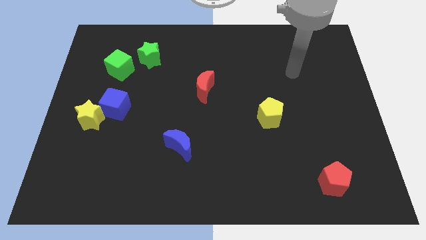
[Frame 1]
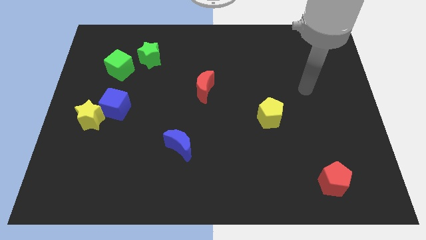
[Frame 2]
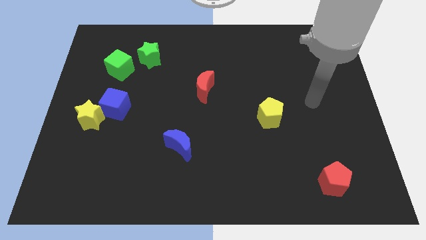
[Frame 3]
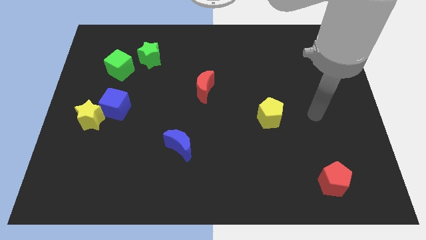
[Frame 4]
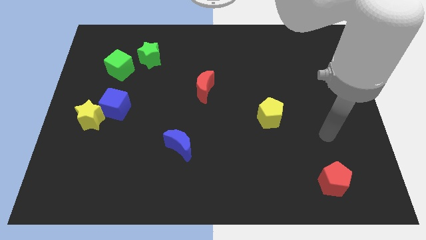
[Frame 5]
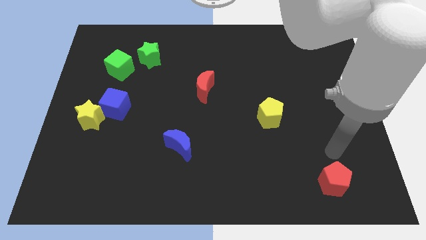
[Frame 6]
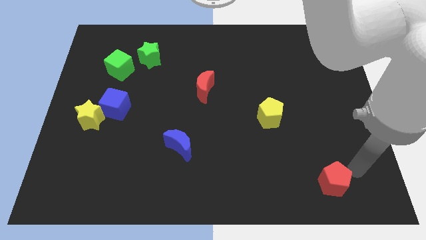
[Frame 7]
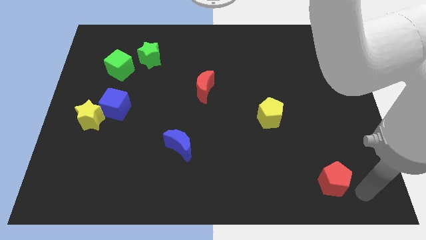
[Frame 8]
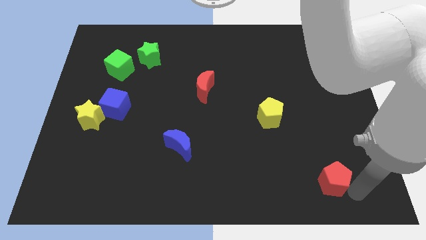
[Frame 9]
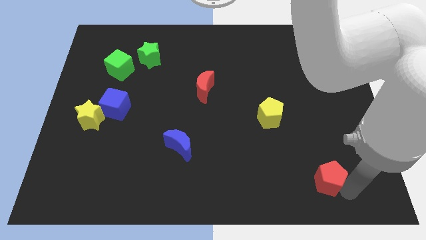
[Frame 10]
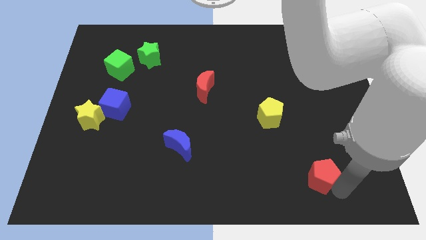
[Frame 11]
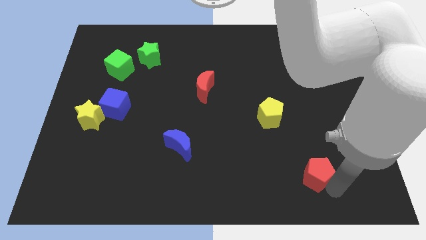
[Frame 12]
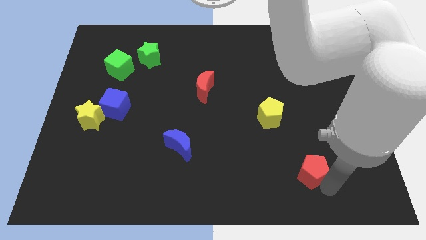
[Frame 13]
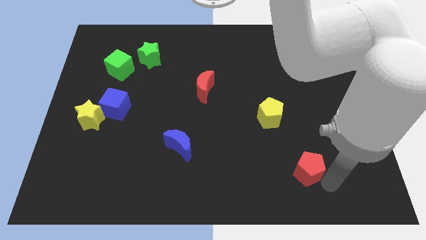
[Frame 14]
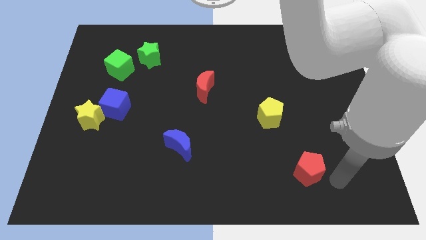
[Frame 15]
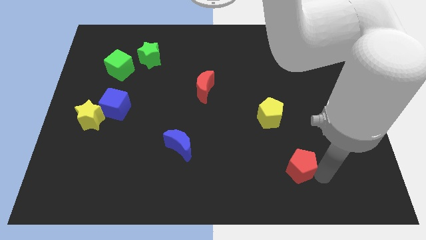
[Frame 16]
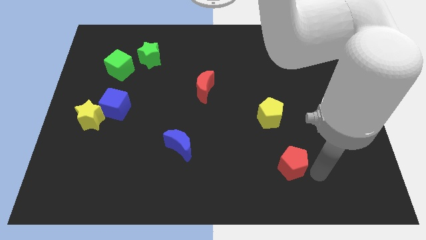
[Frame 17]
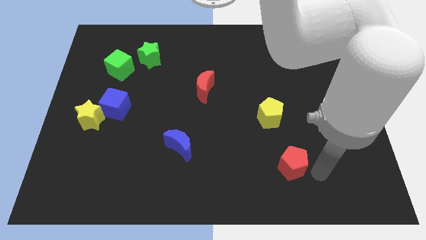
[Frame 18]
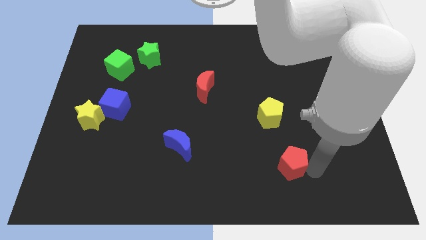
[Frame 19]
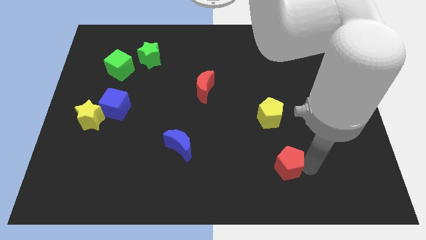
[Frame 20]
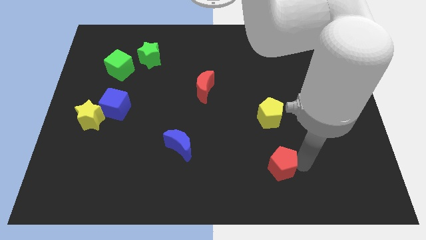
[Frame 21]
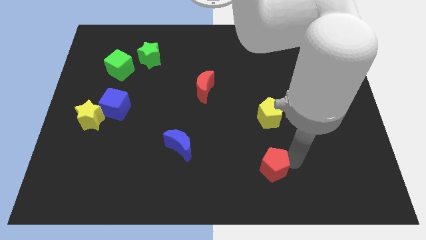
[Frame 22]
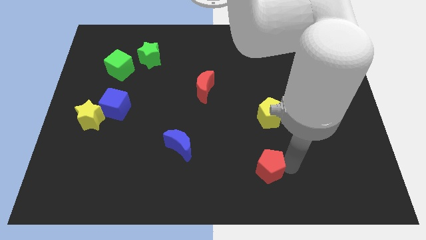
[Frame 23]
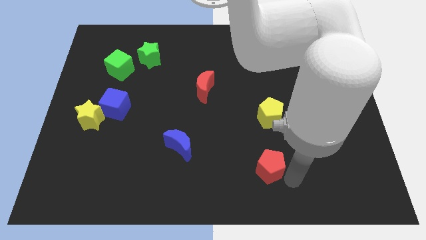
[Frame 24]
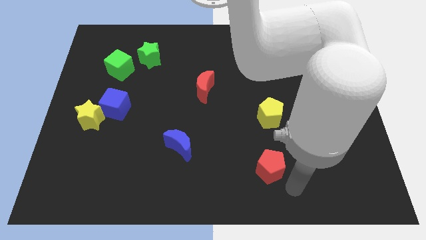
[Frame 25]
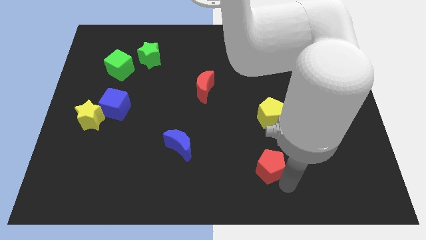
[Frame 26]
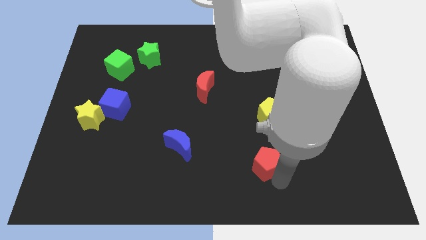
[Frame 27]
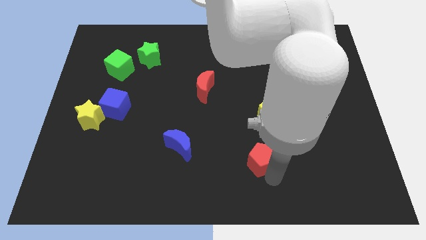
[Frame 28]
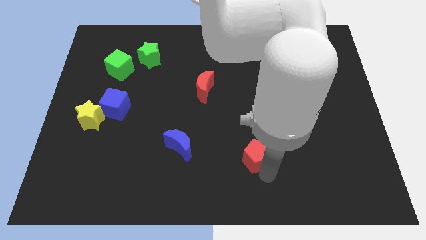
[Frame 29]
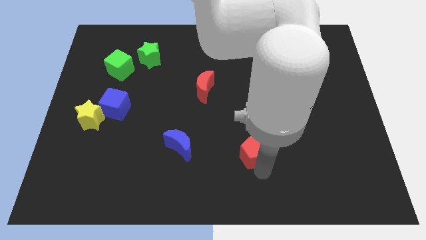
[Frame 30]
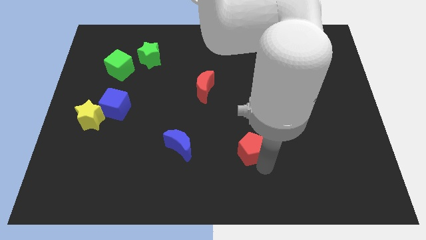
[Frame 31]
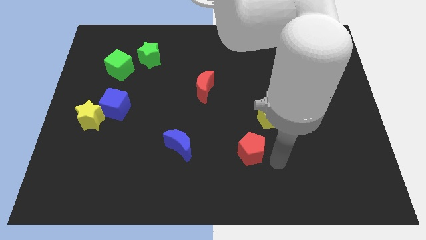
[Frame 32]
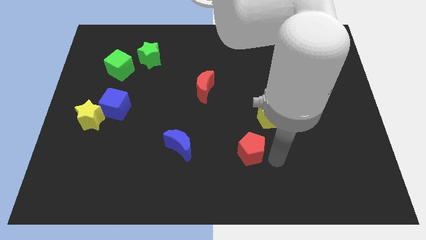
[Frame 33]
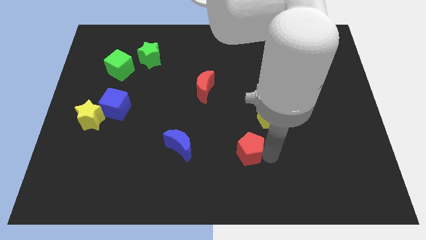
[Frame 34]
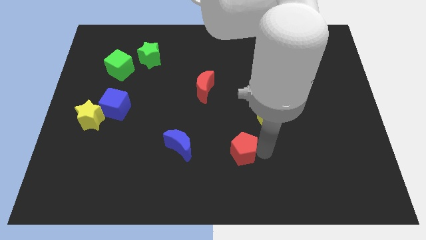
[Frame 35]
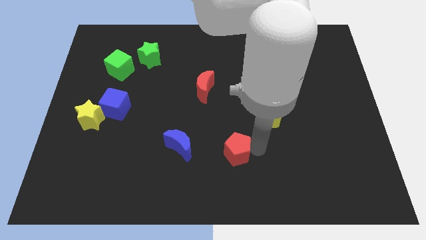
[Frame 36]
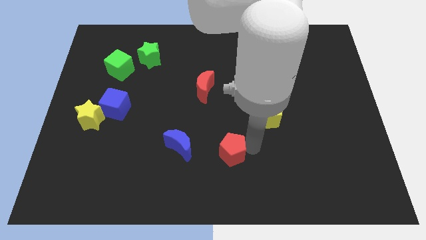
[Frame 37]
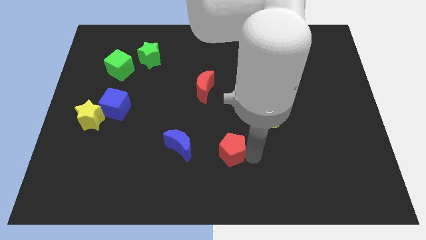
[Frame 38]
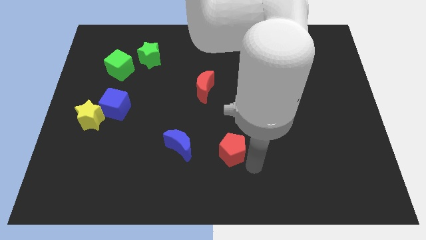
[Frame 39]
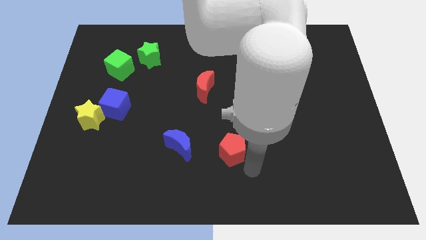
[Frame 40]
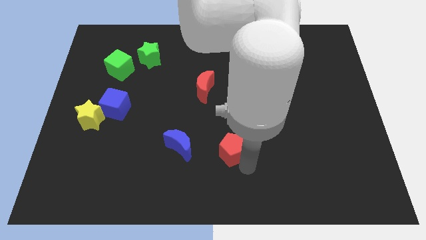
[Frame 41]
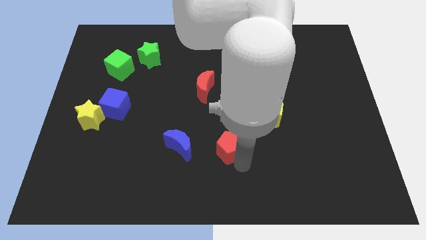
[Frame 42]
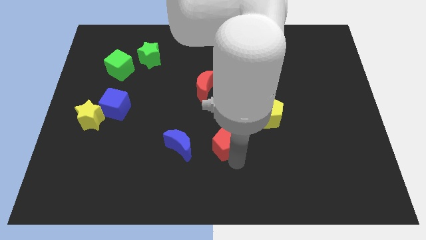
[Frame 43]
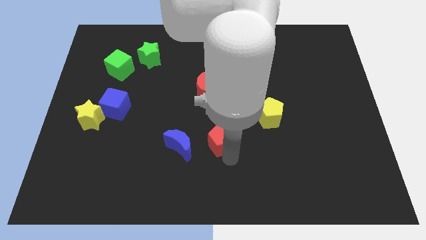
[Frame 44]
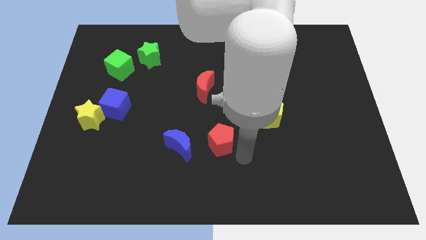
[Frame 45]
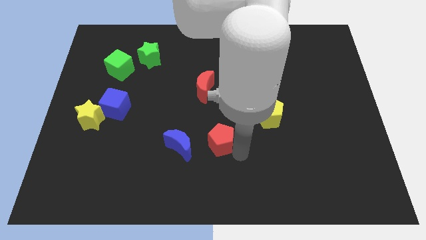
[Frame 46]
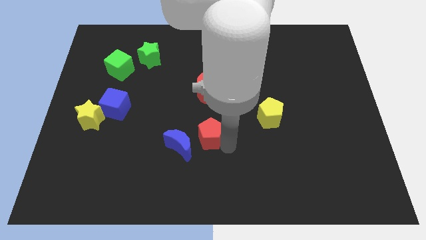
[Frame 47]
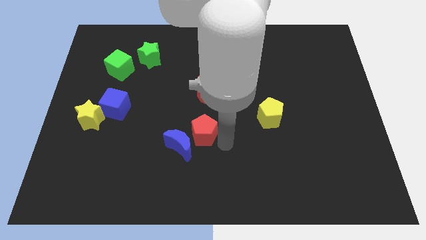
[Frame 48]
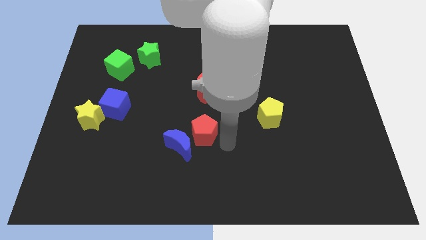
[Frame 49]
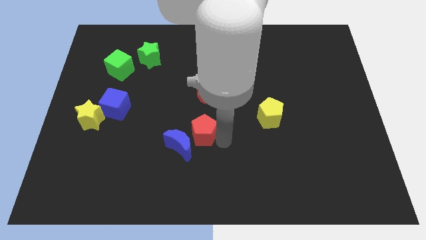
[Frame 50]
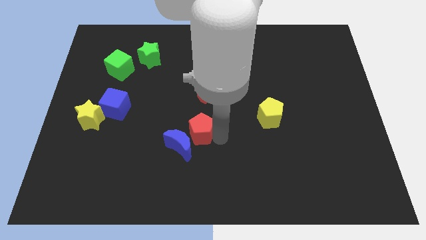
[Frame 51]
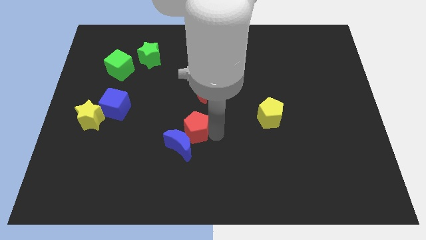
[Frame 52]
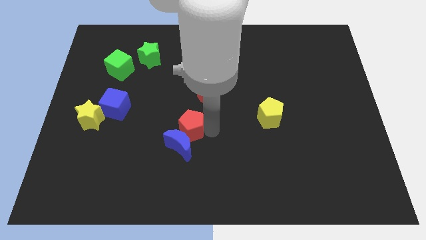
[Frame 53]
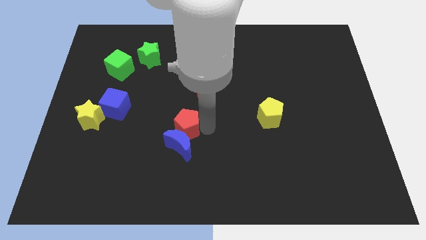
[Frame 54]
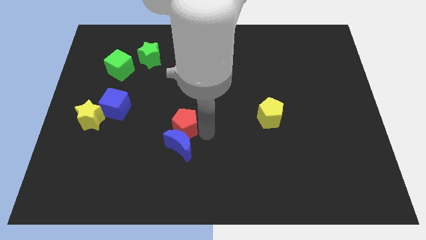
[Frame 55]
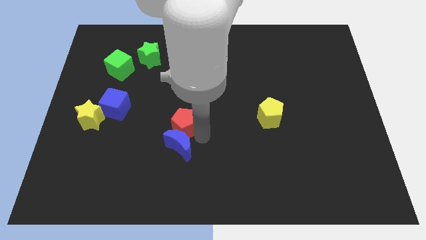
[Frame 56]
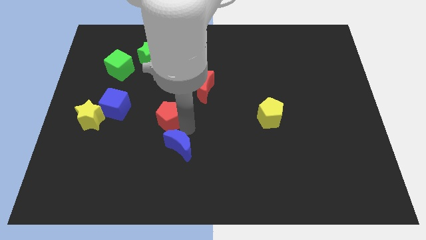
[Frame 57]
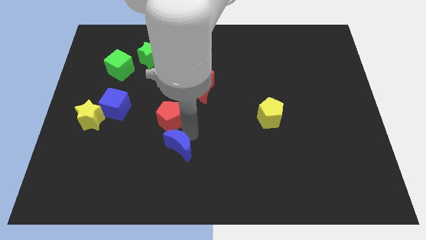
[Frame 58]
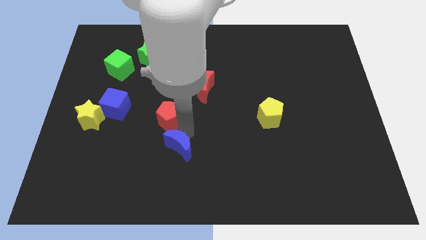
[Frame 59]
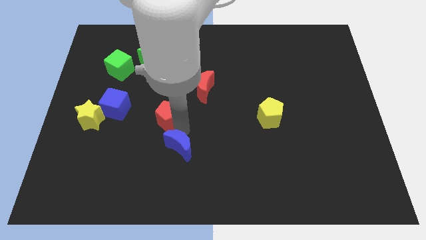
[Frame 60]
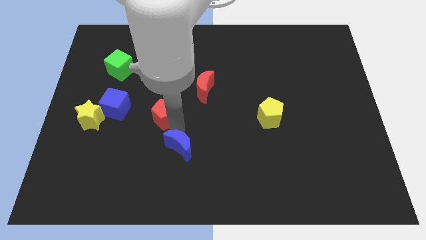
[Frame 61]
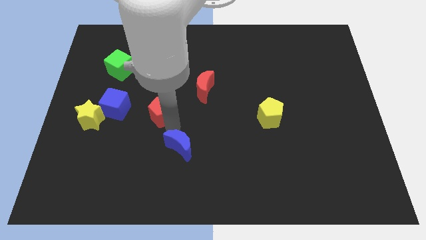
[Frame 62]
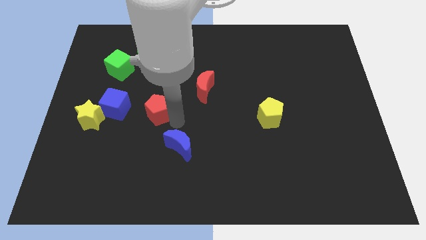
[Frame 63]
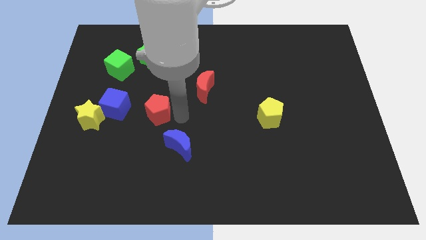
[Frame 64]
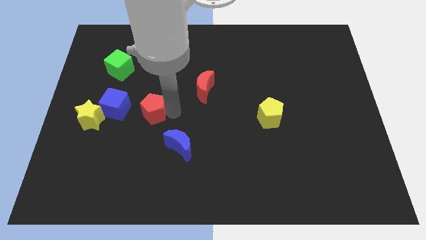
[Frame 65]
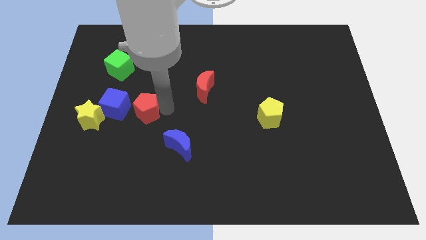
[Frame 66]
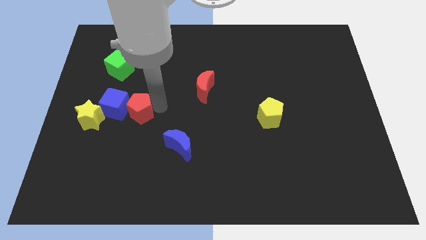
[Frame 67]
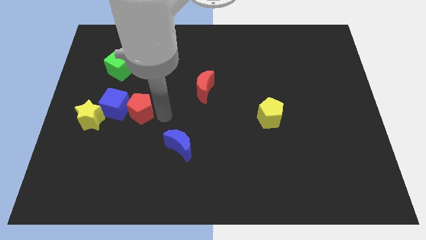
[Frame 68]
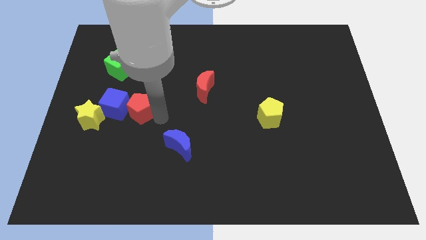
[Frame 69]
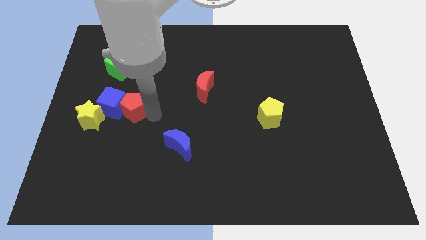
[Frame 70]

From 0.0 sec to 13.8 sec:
move the red pentagon to the top right side of the yellow star
